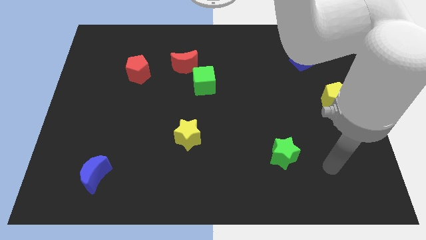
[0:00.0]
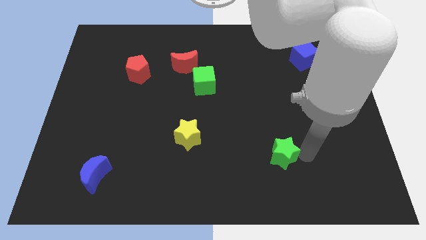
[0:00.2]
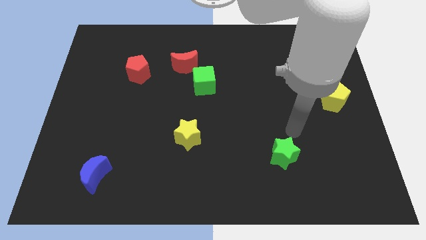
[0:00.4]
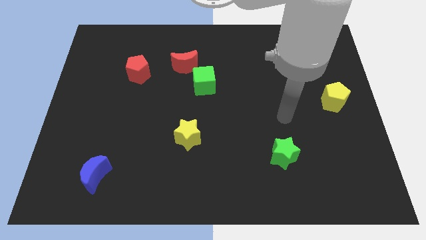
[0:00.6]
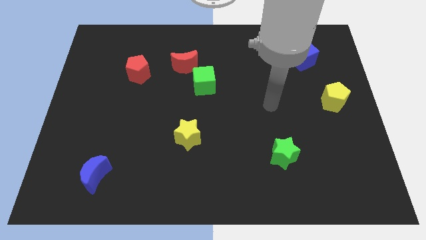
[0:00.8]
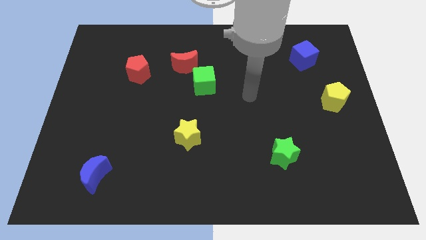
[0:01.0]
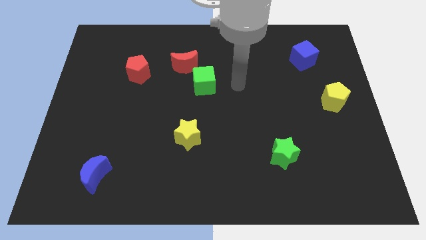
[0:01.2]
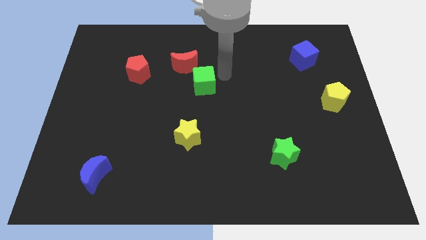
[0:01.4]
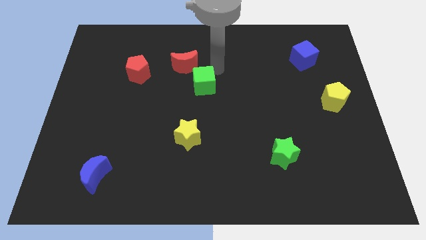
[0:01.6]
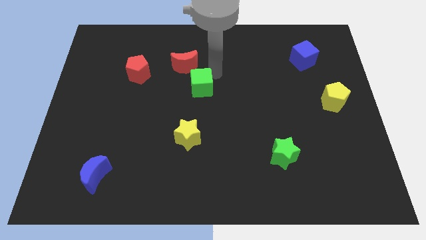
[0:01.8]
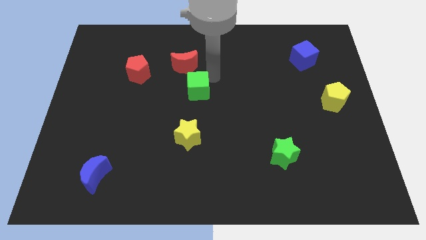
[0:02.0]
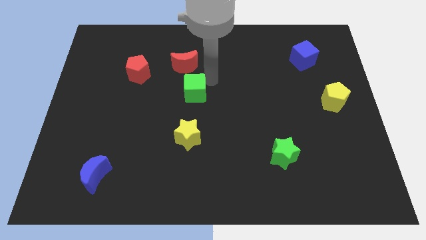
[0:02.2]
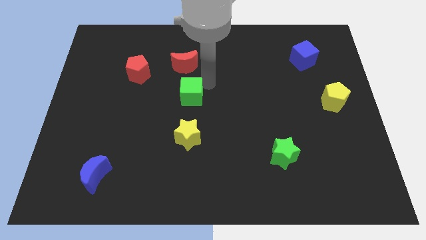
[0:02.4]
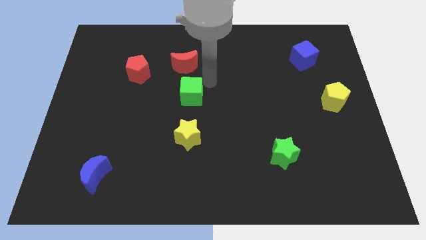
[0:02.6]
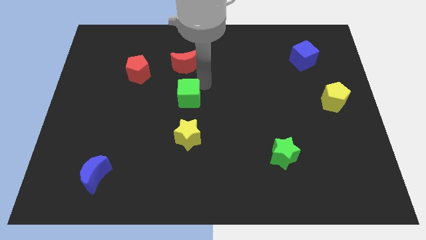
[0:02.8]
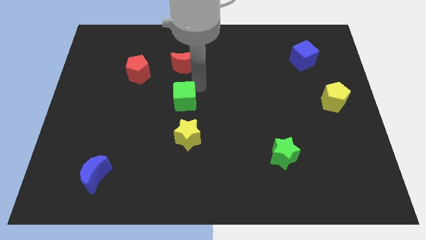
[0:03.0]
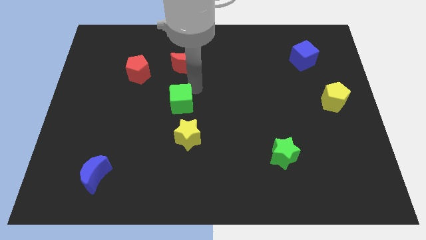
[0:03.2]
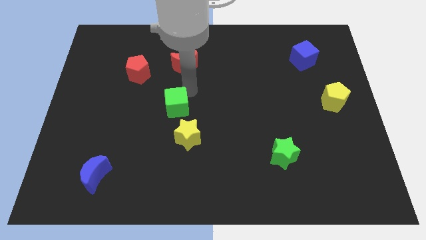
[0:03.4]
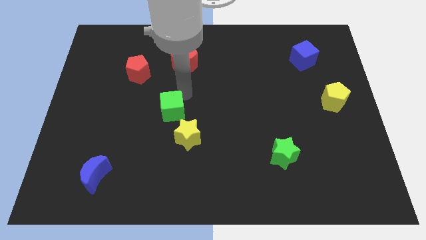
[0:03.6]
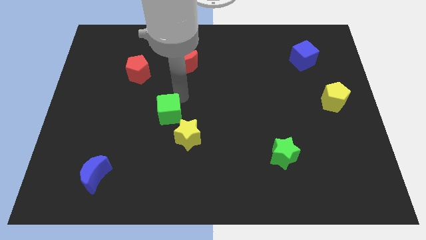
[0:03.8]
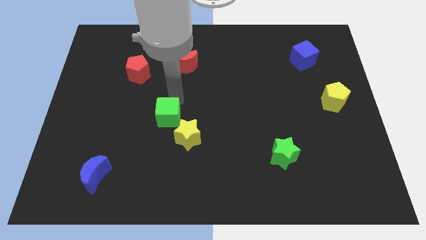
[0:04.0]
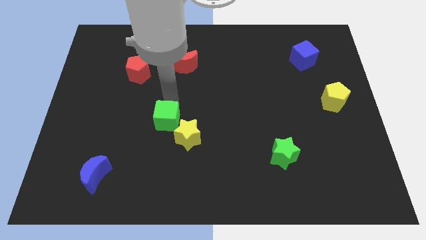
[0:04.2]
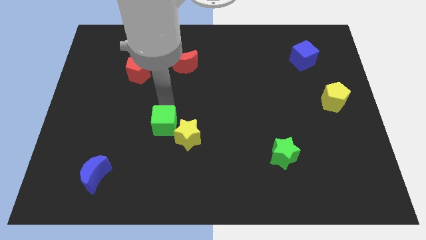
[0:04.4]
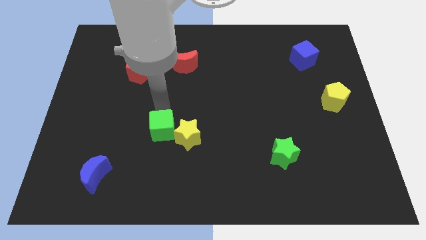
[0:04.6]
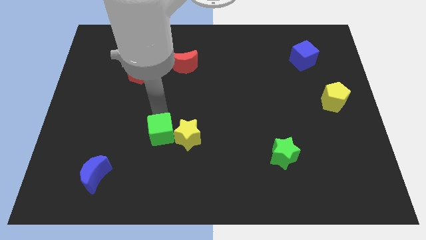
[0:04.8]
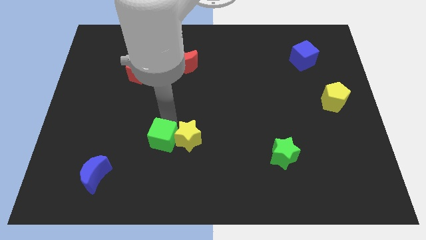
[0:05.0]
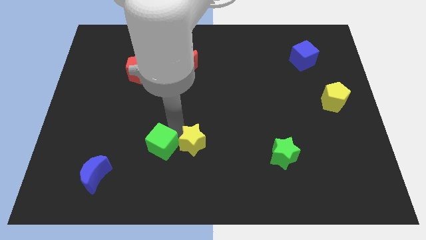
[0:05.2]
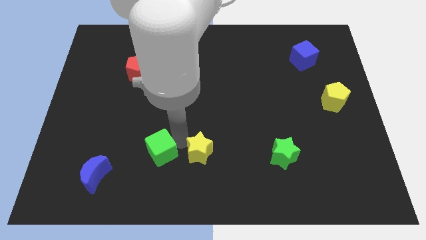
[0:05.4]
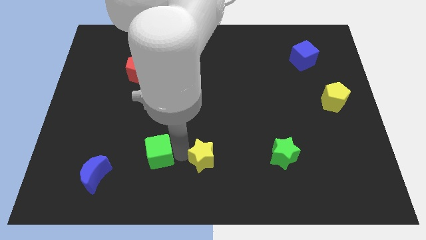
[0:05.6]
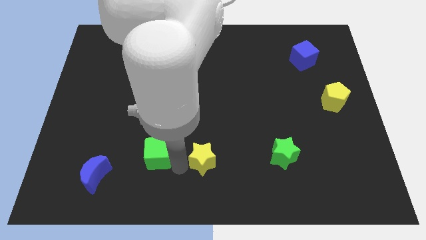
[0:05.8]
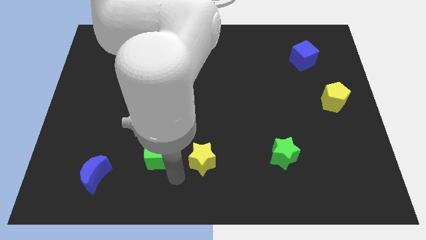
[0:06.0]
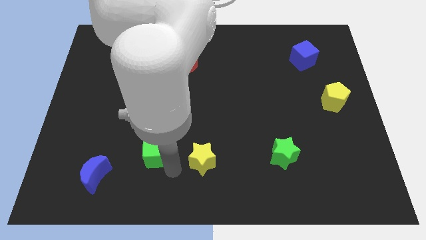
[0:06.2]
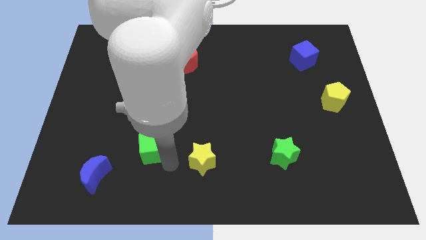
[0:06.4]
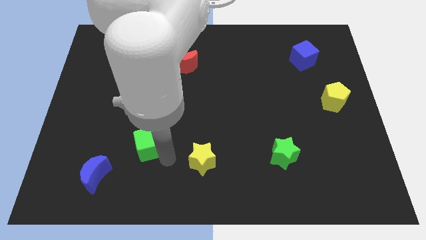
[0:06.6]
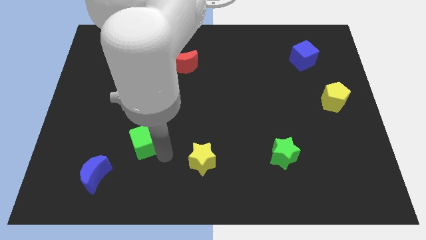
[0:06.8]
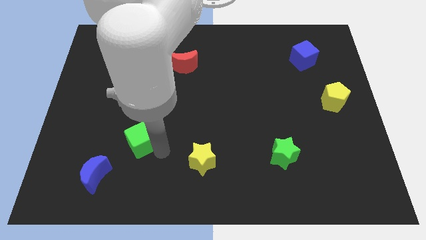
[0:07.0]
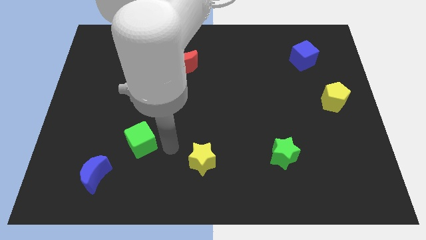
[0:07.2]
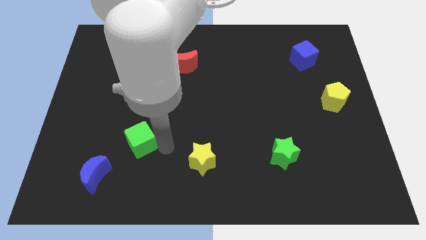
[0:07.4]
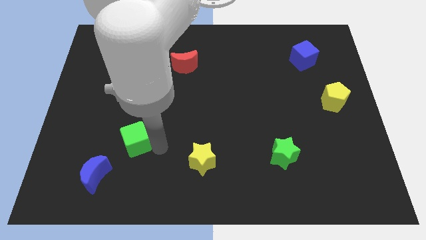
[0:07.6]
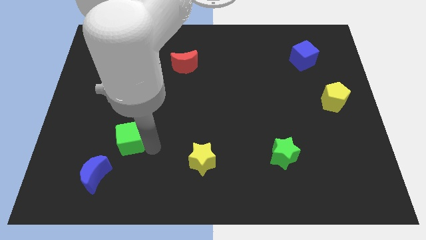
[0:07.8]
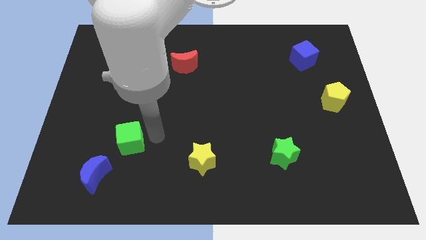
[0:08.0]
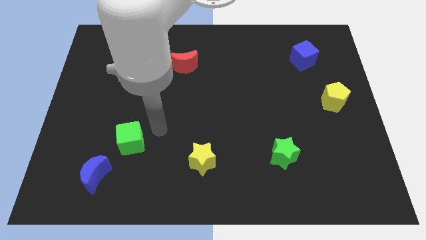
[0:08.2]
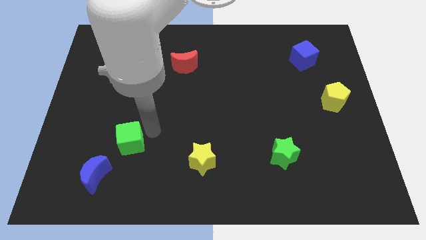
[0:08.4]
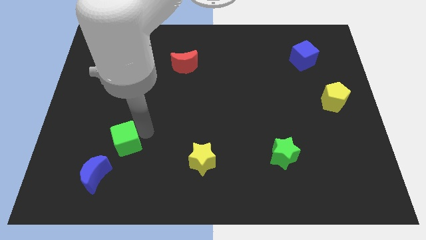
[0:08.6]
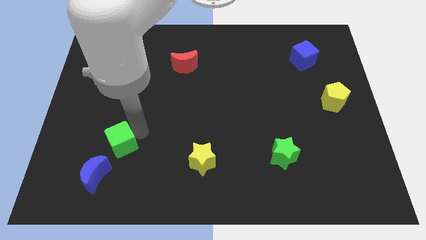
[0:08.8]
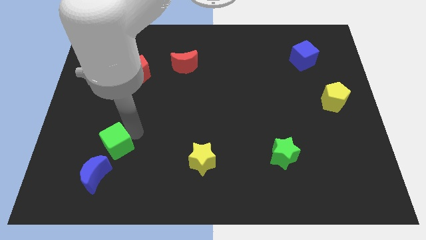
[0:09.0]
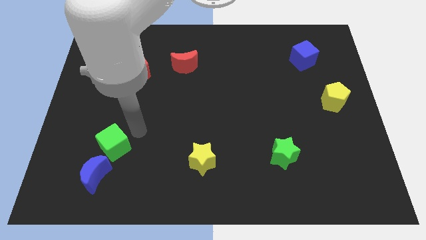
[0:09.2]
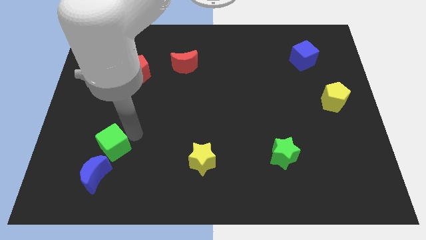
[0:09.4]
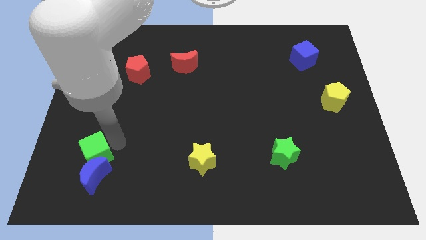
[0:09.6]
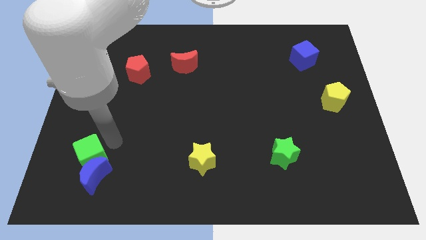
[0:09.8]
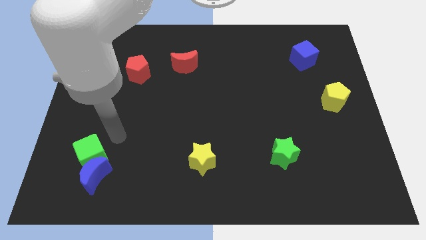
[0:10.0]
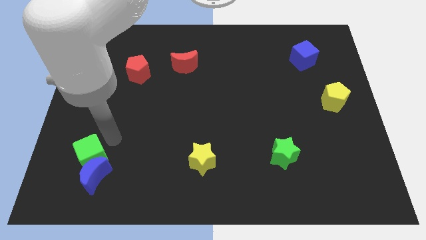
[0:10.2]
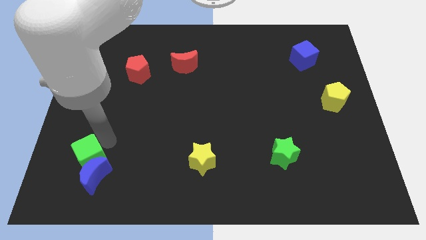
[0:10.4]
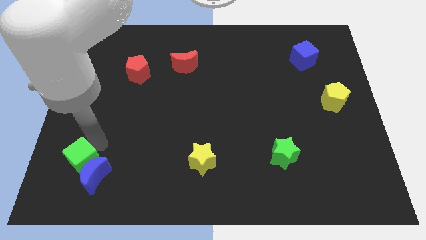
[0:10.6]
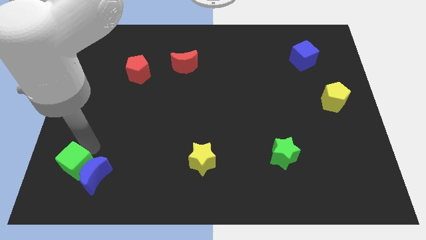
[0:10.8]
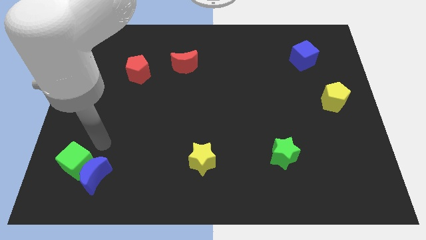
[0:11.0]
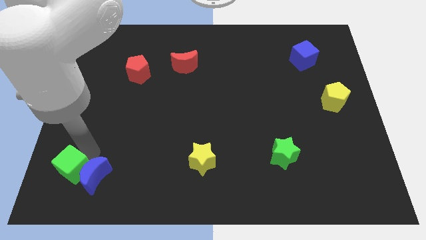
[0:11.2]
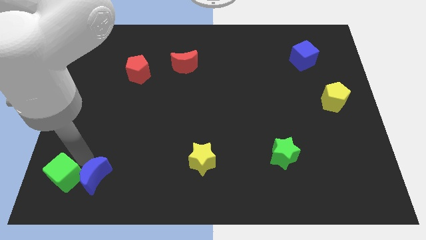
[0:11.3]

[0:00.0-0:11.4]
push the green cube to the bottom left corner
